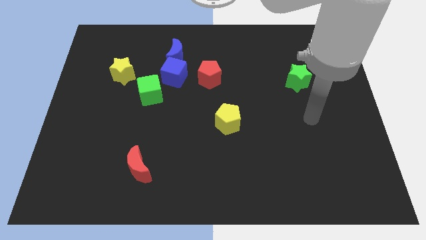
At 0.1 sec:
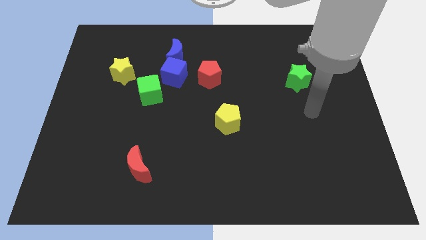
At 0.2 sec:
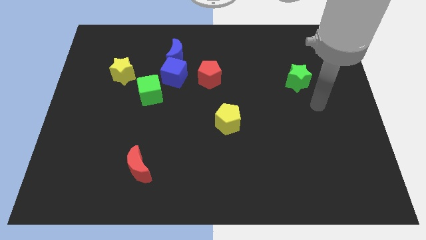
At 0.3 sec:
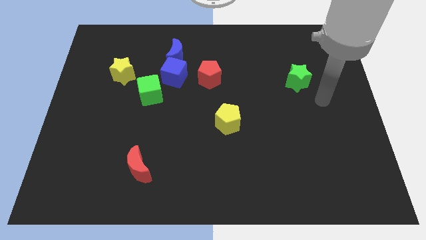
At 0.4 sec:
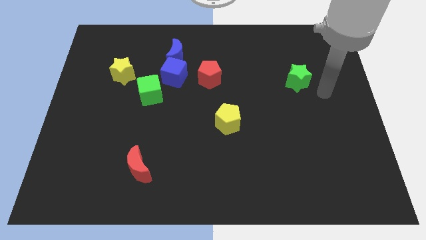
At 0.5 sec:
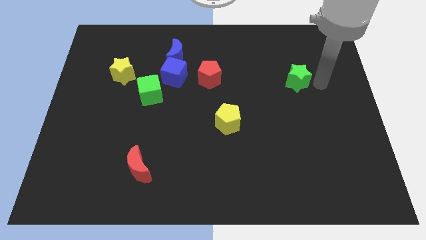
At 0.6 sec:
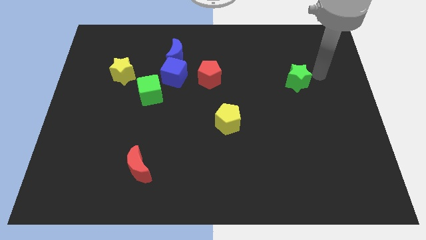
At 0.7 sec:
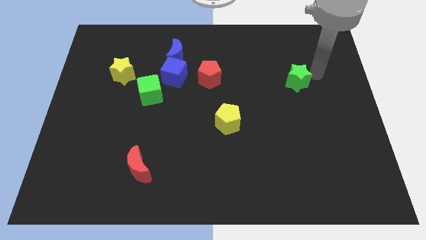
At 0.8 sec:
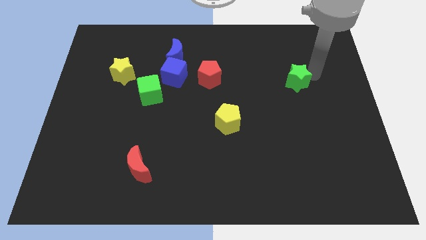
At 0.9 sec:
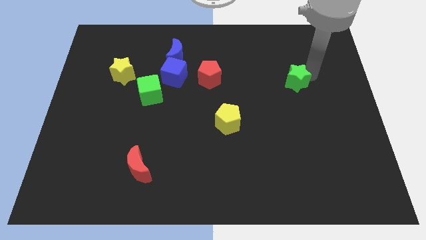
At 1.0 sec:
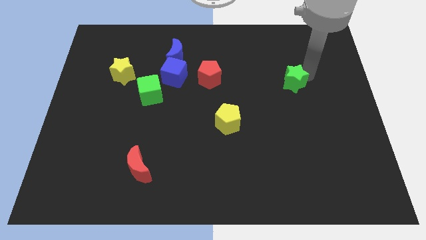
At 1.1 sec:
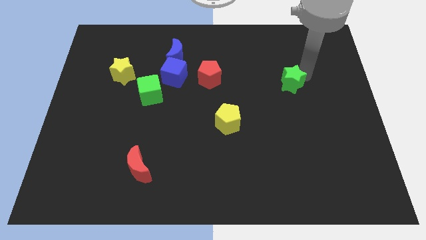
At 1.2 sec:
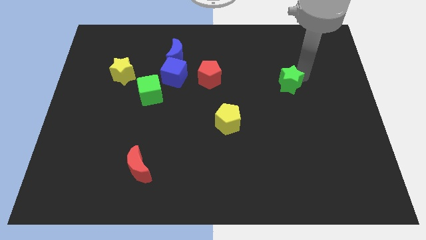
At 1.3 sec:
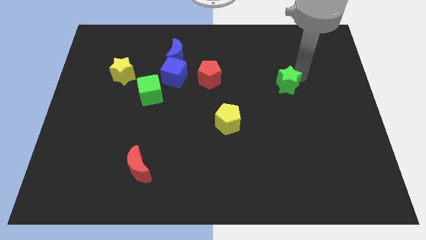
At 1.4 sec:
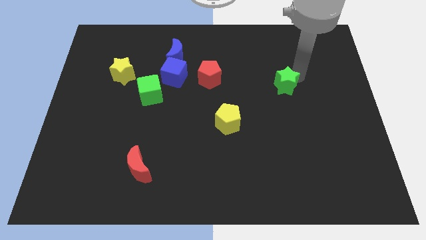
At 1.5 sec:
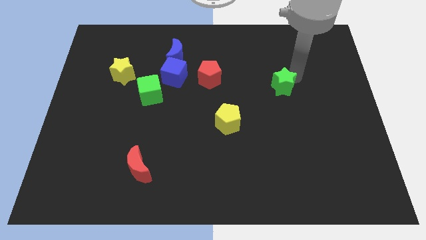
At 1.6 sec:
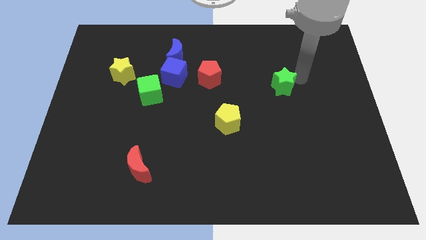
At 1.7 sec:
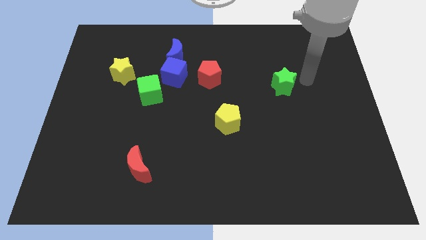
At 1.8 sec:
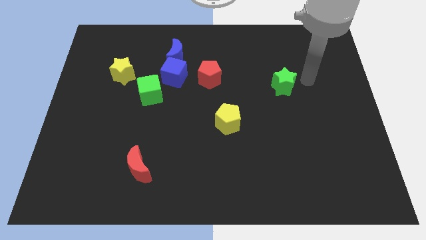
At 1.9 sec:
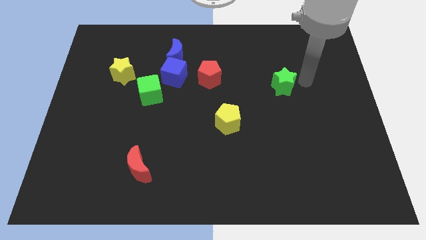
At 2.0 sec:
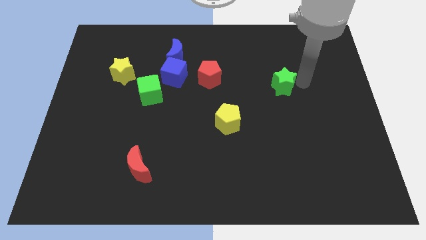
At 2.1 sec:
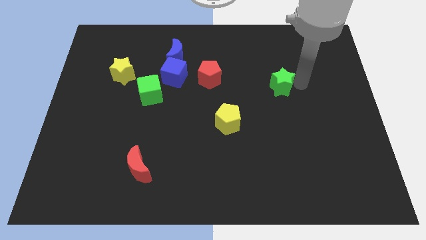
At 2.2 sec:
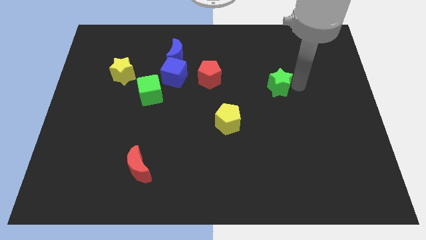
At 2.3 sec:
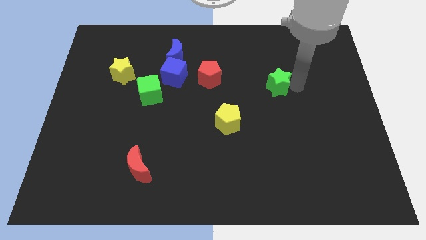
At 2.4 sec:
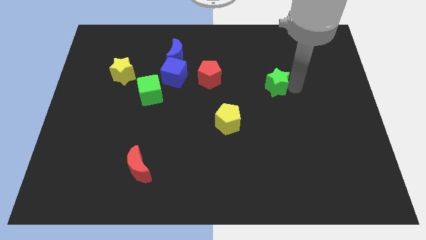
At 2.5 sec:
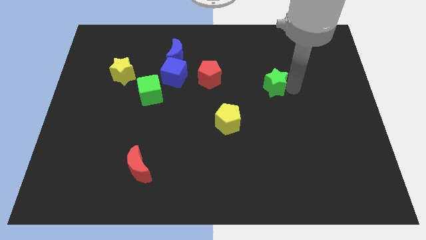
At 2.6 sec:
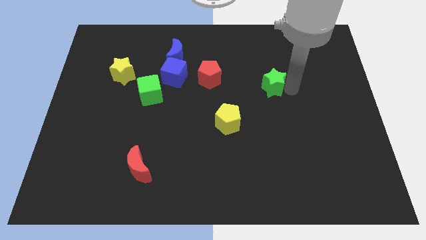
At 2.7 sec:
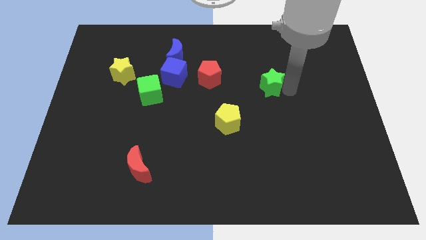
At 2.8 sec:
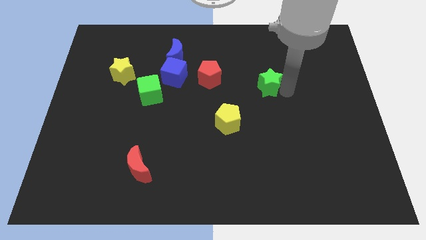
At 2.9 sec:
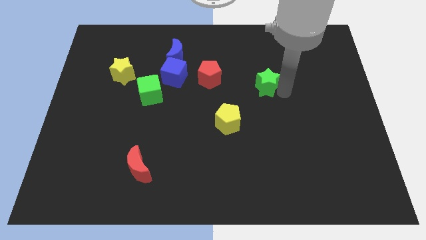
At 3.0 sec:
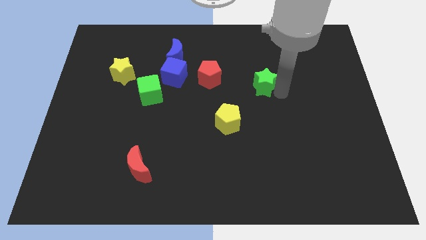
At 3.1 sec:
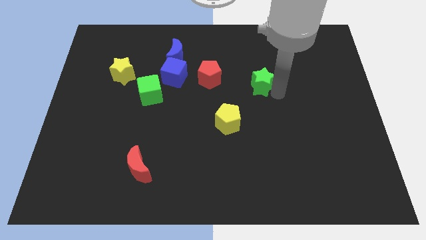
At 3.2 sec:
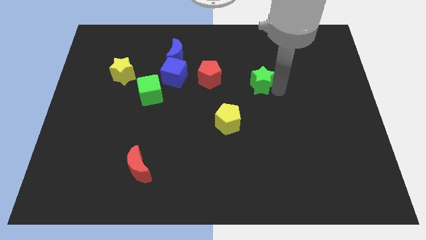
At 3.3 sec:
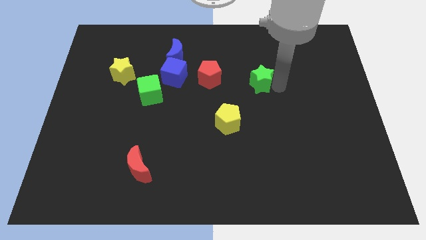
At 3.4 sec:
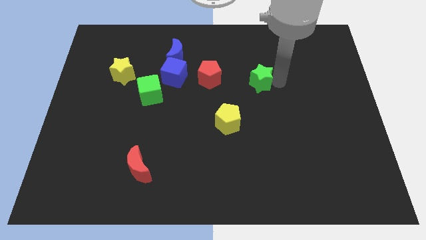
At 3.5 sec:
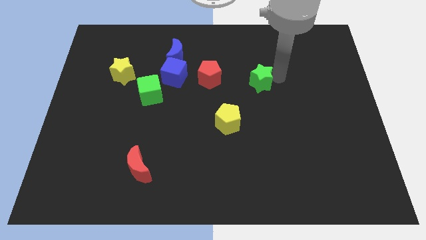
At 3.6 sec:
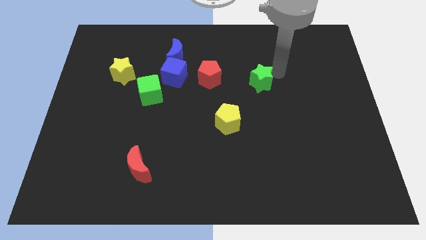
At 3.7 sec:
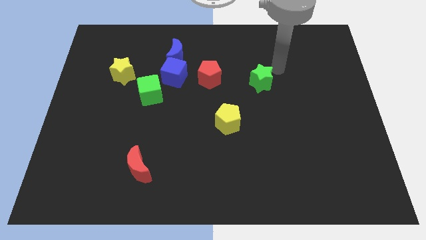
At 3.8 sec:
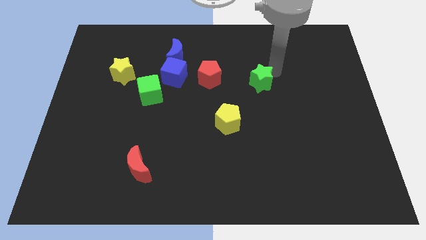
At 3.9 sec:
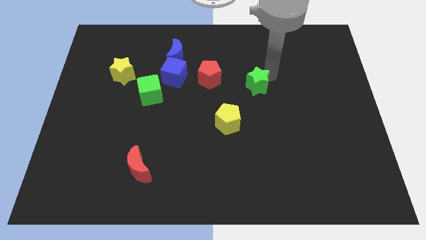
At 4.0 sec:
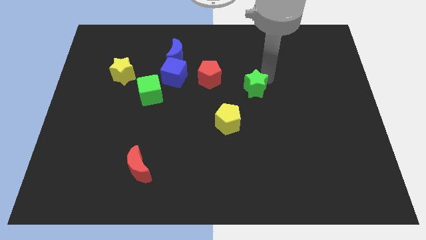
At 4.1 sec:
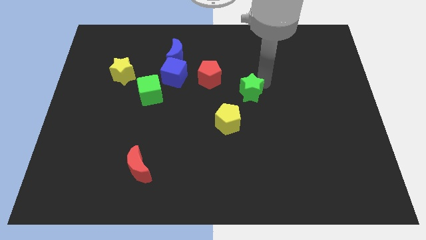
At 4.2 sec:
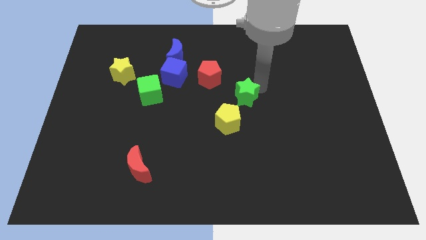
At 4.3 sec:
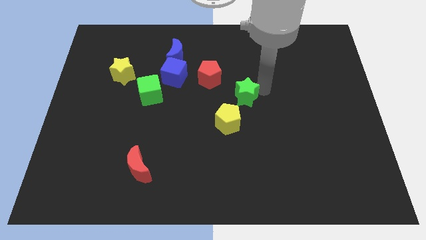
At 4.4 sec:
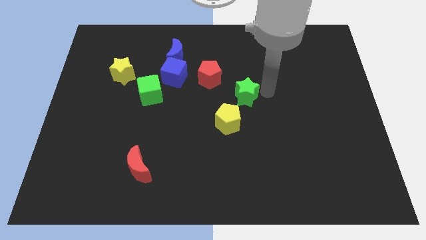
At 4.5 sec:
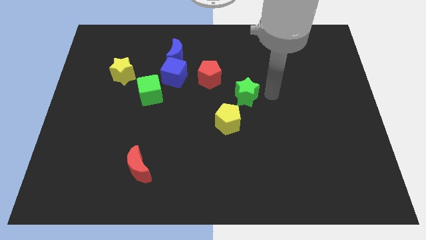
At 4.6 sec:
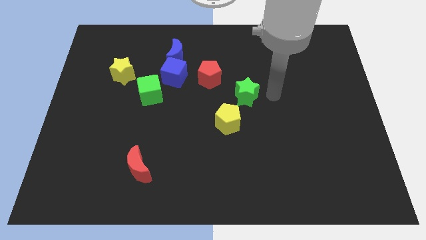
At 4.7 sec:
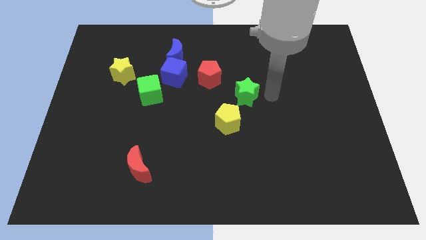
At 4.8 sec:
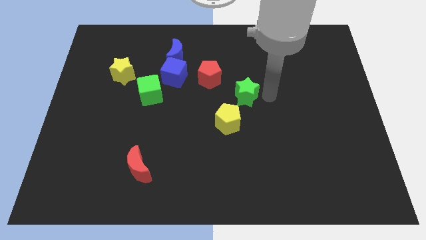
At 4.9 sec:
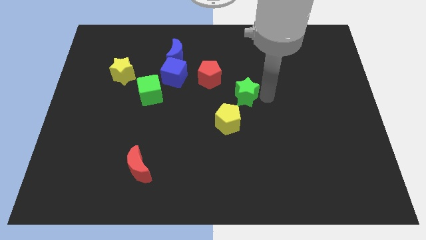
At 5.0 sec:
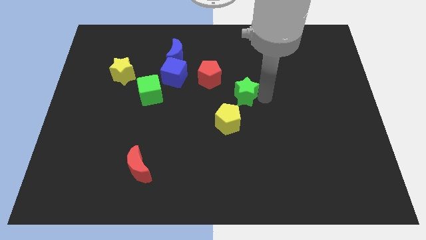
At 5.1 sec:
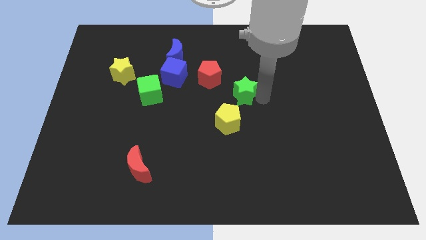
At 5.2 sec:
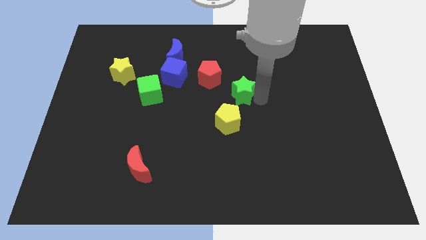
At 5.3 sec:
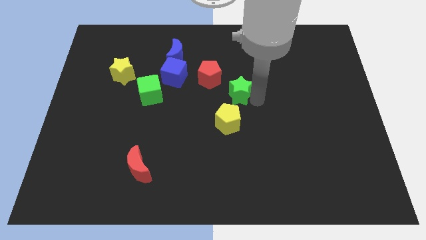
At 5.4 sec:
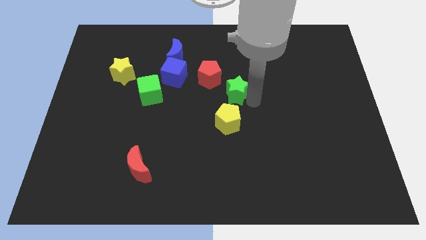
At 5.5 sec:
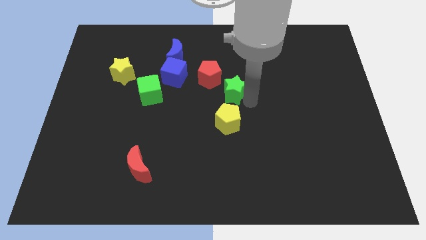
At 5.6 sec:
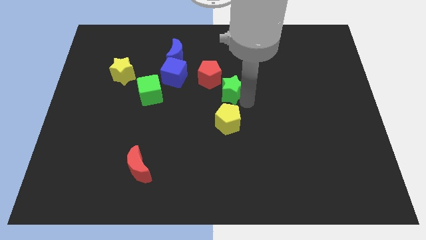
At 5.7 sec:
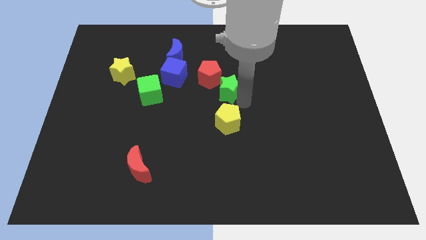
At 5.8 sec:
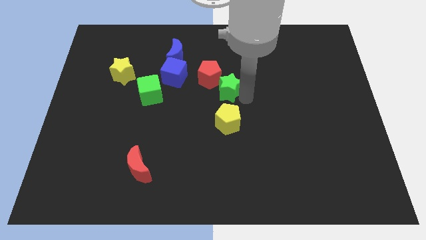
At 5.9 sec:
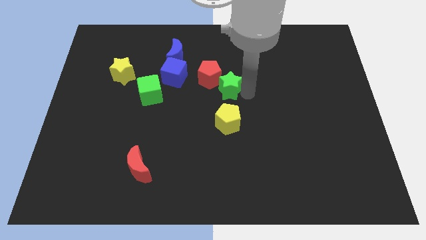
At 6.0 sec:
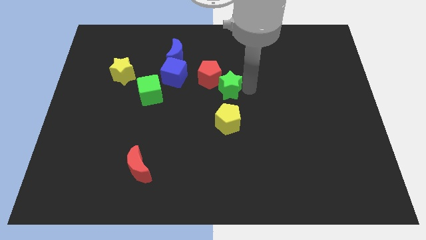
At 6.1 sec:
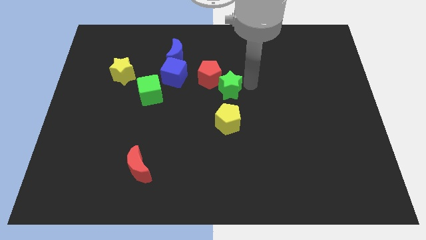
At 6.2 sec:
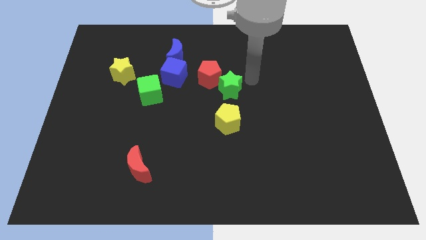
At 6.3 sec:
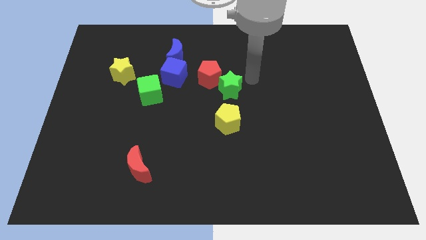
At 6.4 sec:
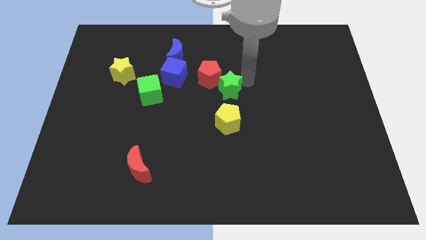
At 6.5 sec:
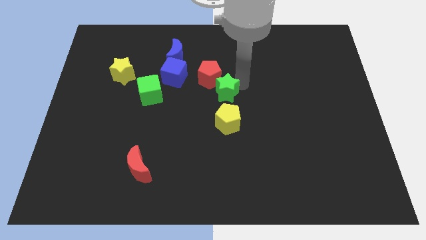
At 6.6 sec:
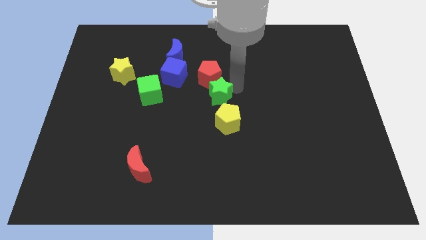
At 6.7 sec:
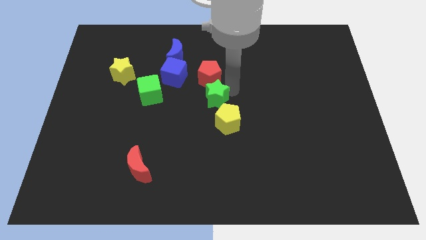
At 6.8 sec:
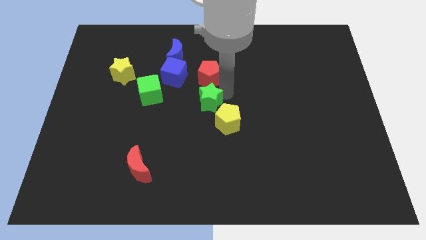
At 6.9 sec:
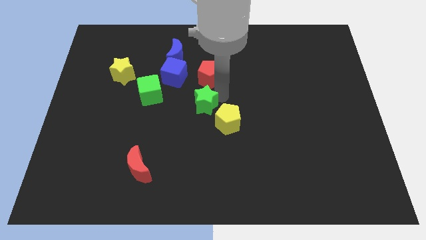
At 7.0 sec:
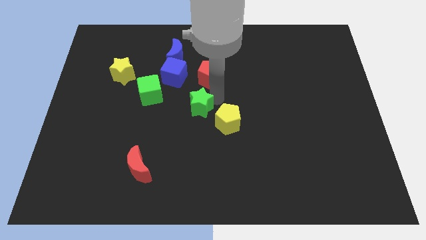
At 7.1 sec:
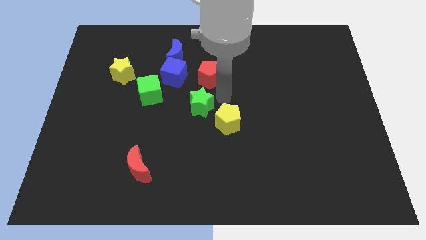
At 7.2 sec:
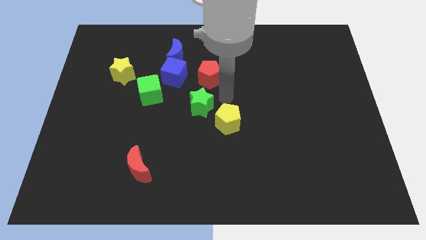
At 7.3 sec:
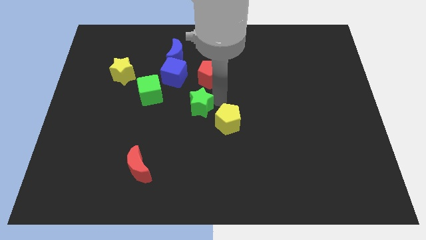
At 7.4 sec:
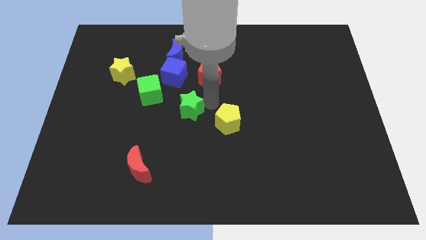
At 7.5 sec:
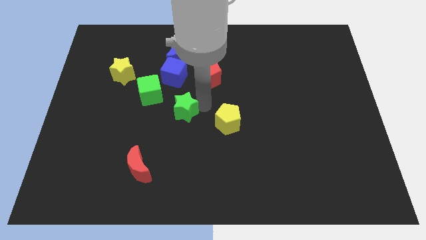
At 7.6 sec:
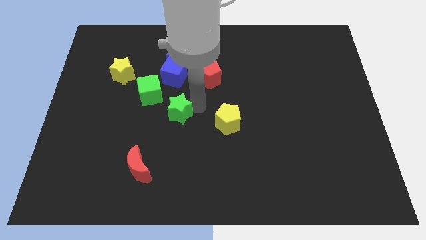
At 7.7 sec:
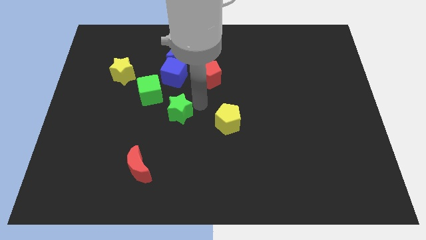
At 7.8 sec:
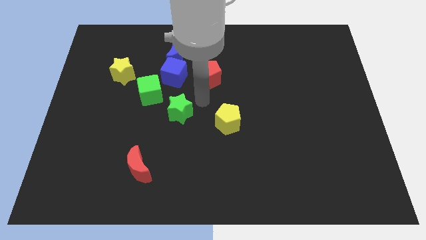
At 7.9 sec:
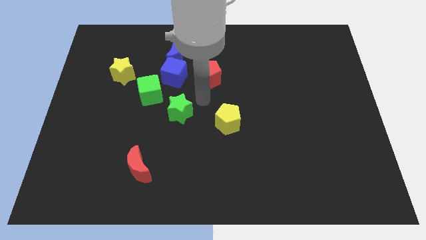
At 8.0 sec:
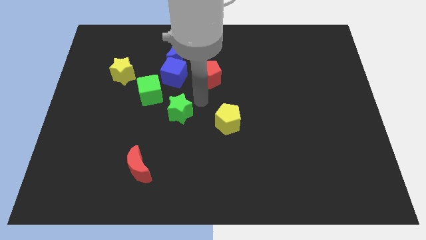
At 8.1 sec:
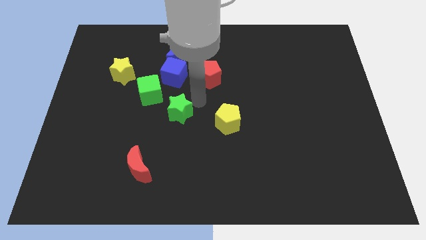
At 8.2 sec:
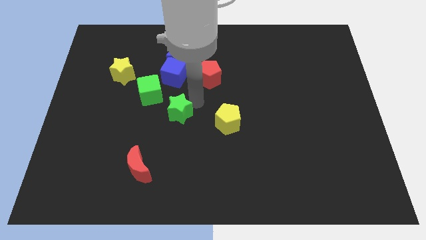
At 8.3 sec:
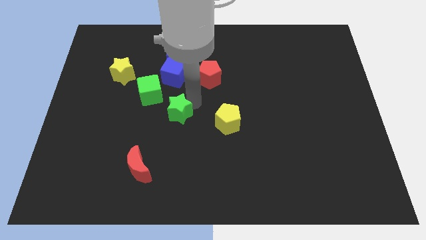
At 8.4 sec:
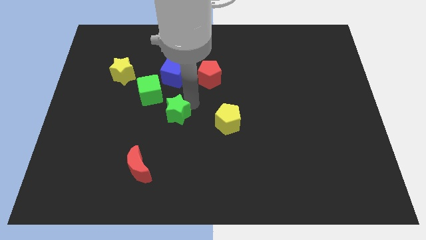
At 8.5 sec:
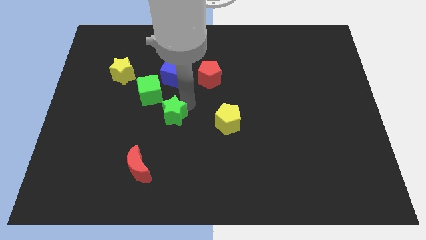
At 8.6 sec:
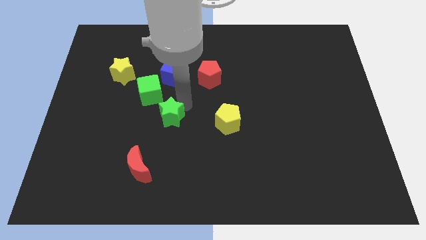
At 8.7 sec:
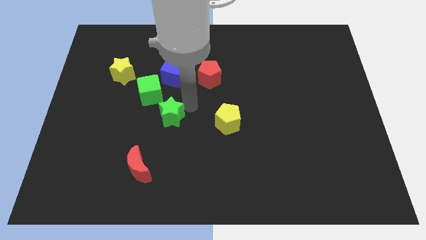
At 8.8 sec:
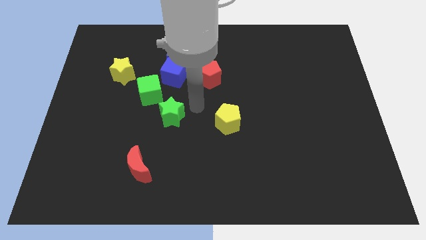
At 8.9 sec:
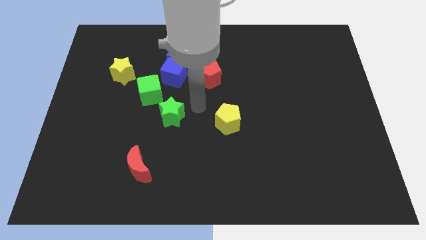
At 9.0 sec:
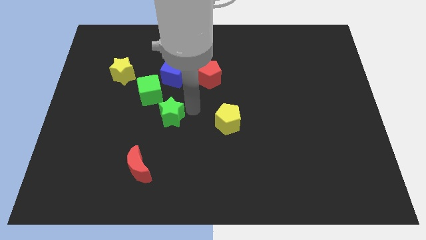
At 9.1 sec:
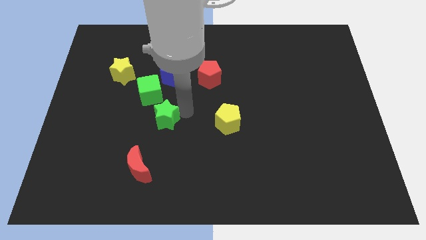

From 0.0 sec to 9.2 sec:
slide the green star to the top of the red moon
